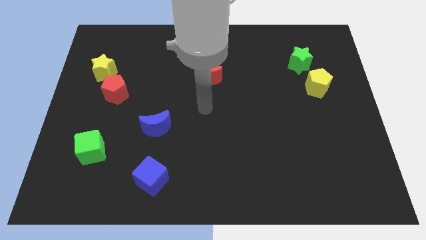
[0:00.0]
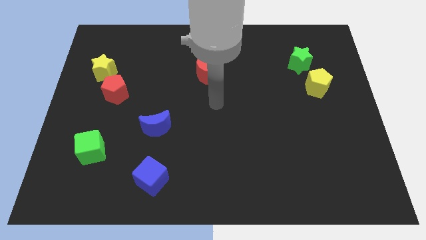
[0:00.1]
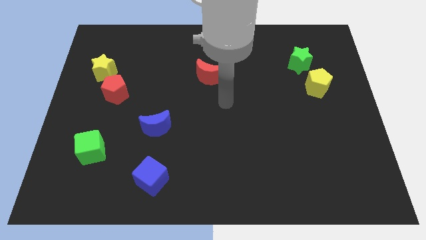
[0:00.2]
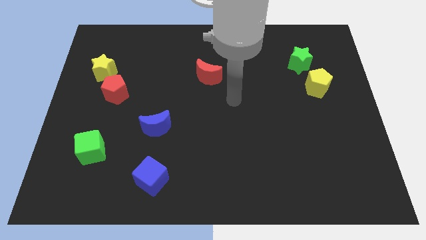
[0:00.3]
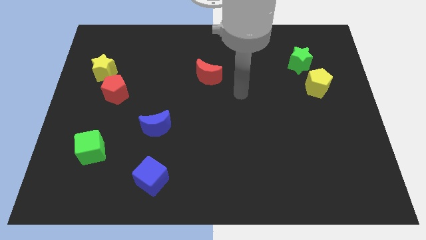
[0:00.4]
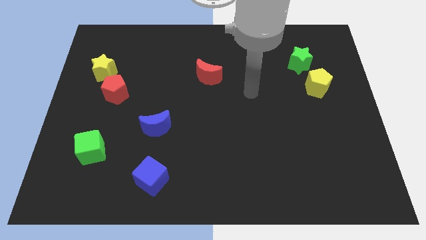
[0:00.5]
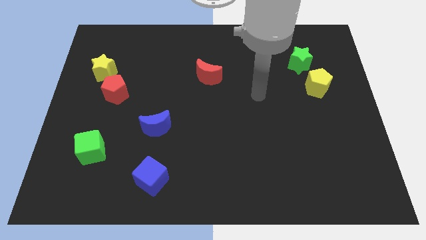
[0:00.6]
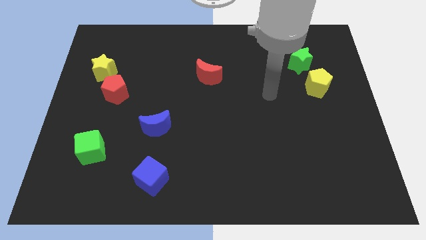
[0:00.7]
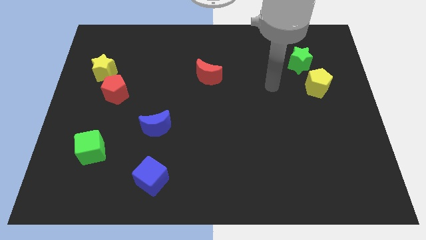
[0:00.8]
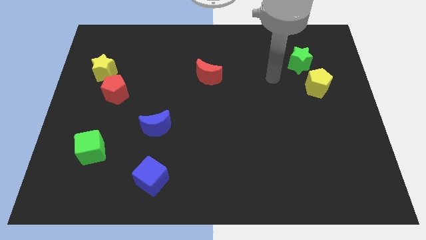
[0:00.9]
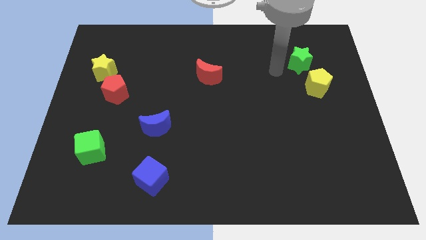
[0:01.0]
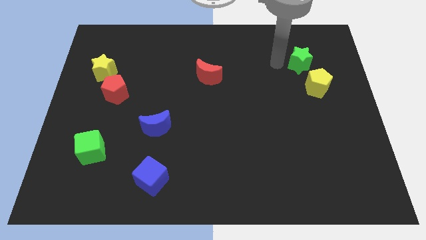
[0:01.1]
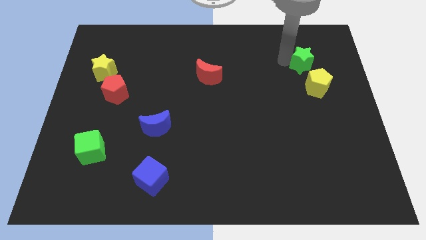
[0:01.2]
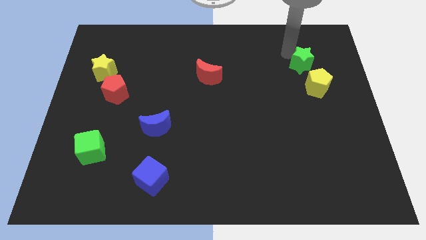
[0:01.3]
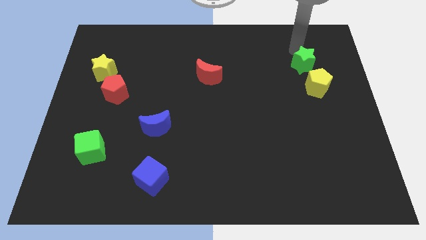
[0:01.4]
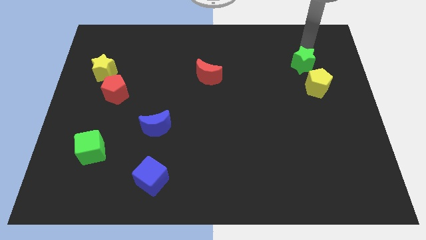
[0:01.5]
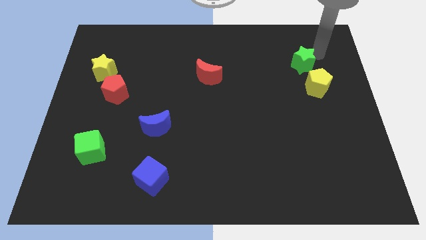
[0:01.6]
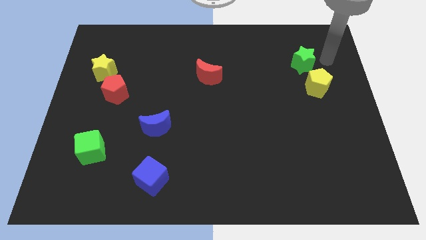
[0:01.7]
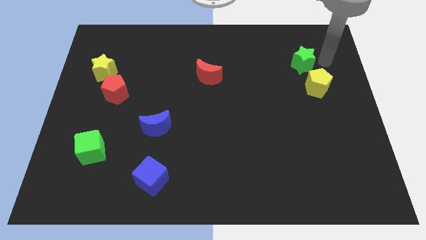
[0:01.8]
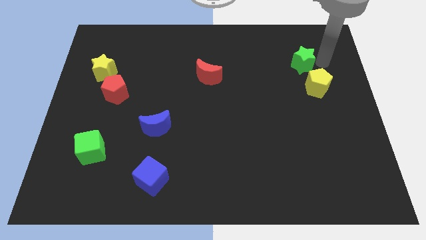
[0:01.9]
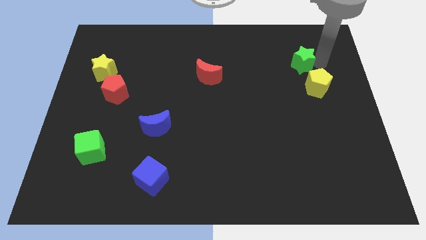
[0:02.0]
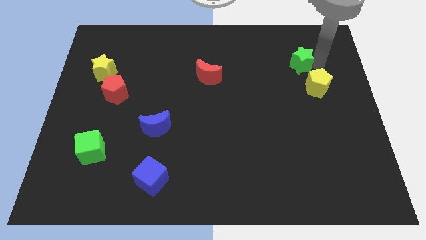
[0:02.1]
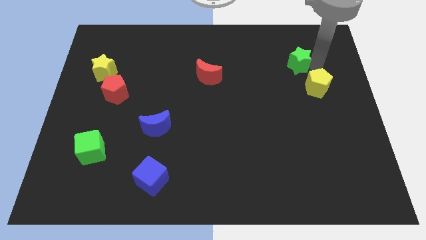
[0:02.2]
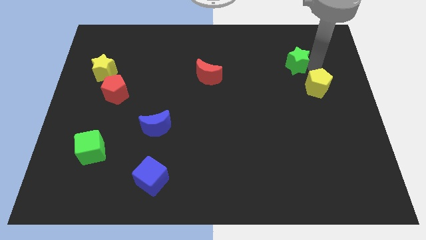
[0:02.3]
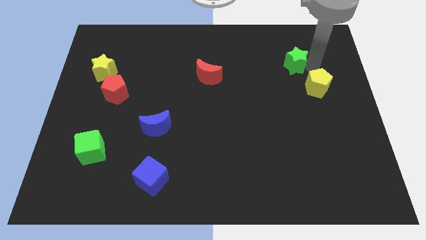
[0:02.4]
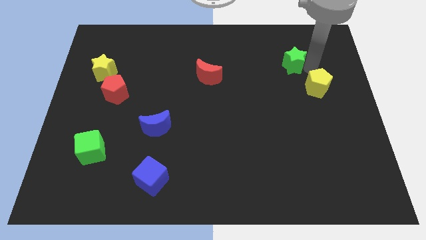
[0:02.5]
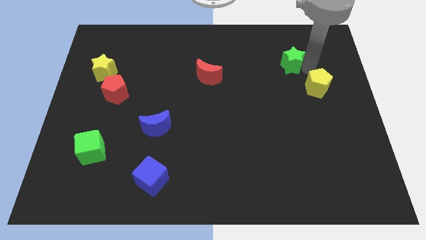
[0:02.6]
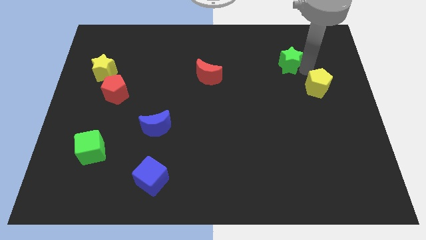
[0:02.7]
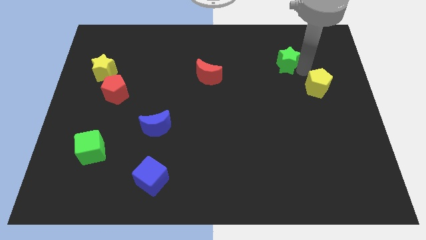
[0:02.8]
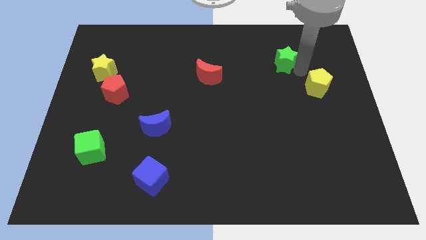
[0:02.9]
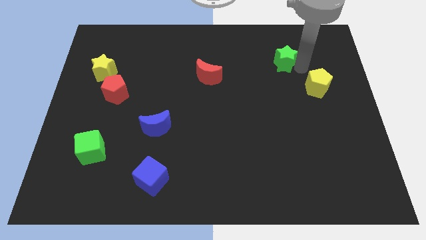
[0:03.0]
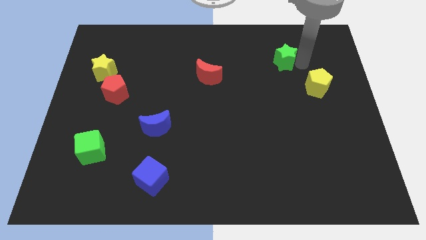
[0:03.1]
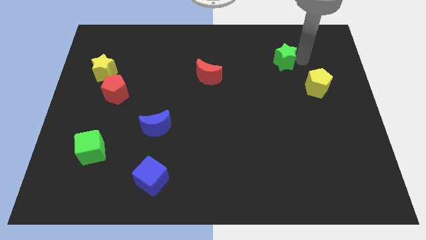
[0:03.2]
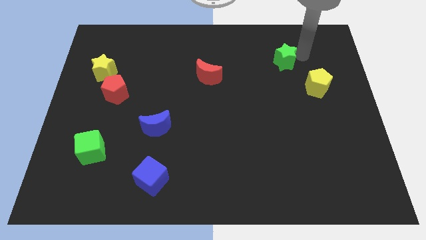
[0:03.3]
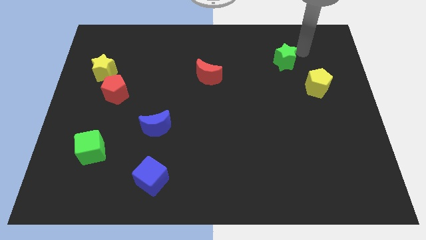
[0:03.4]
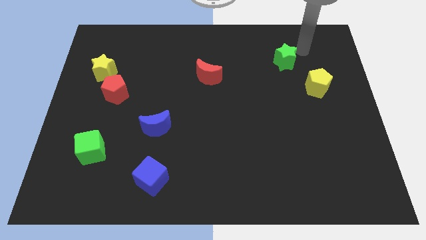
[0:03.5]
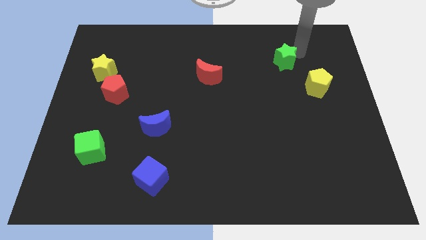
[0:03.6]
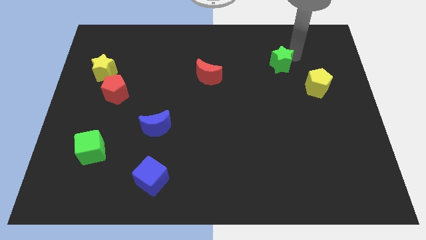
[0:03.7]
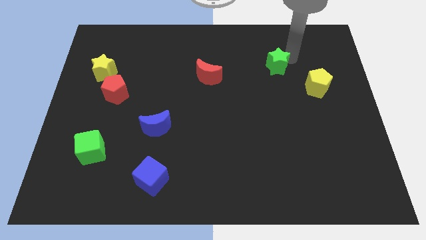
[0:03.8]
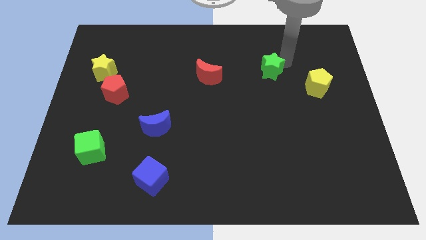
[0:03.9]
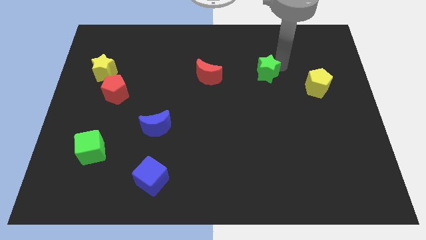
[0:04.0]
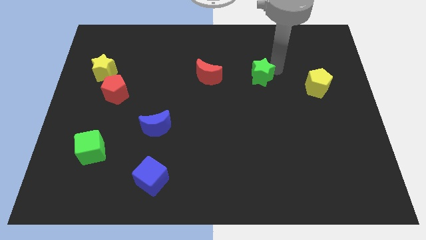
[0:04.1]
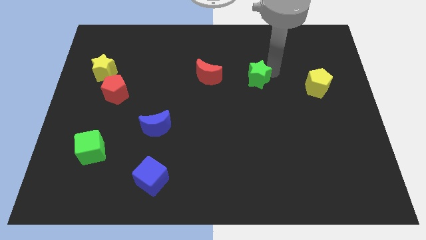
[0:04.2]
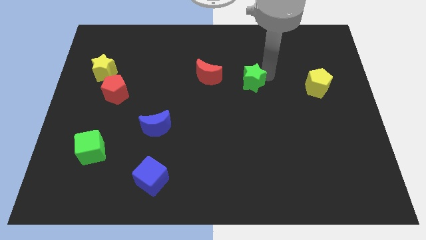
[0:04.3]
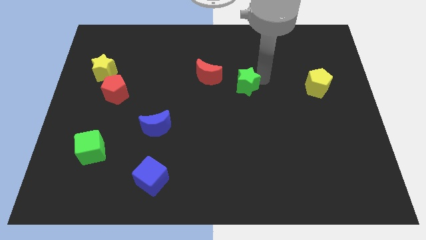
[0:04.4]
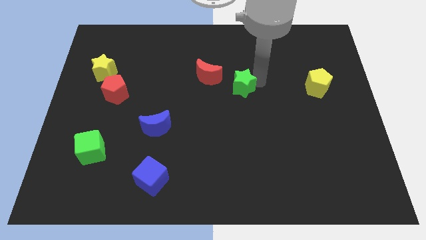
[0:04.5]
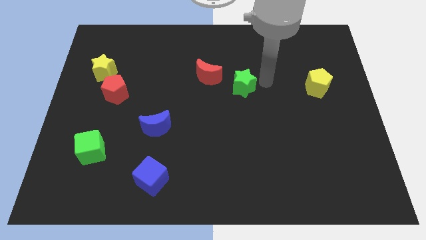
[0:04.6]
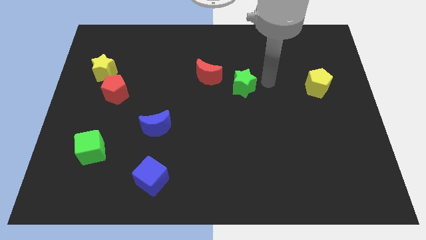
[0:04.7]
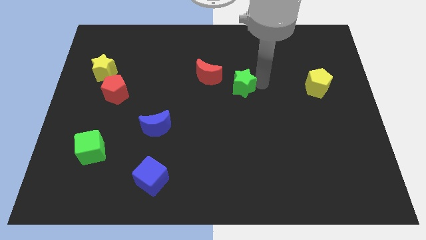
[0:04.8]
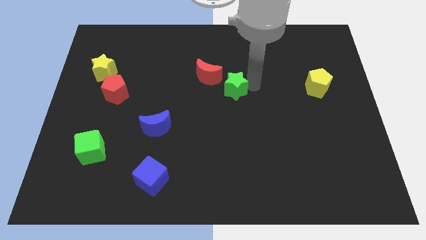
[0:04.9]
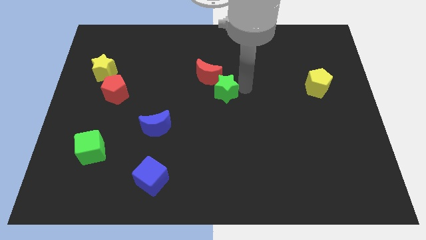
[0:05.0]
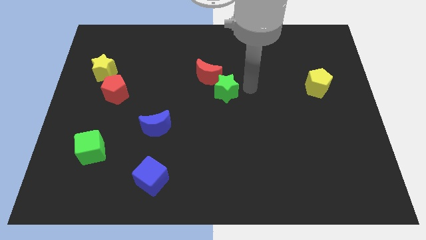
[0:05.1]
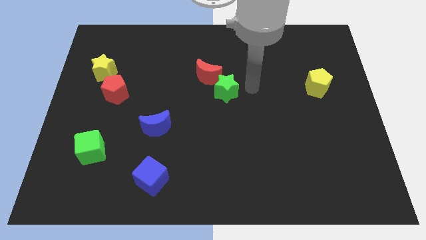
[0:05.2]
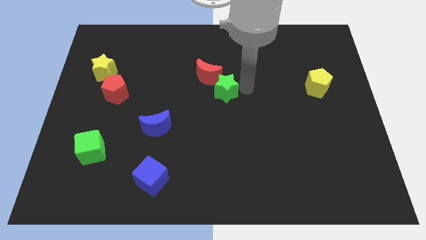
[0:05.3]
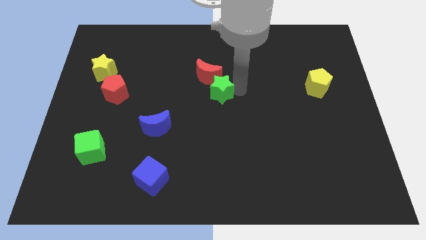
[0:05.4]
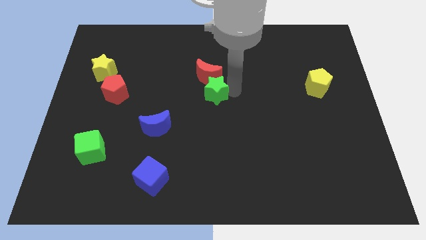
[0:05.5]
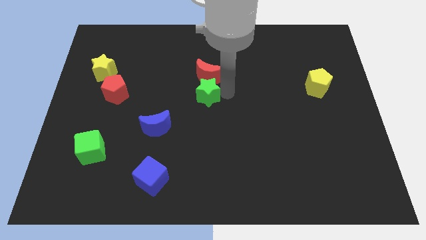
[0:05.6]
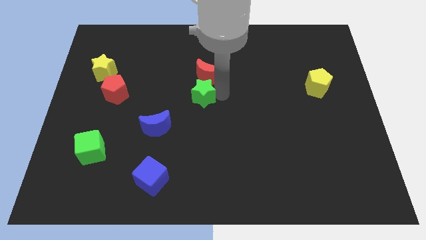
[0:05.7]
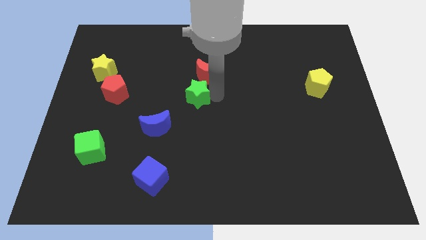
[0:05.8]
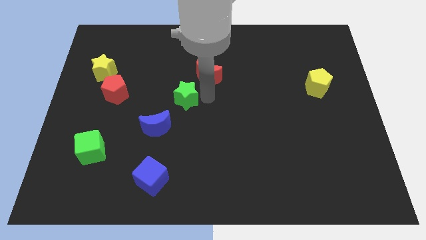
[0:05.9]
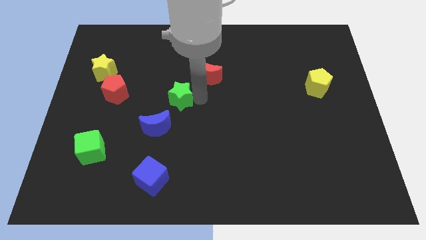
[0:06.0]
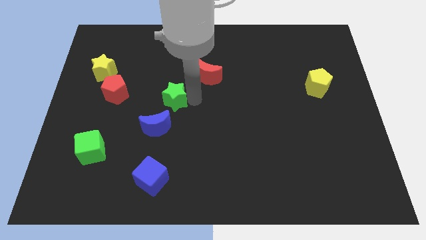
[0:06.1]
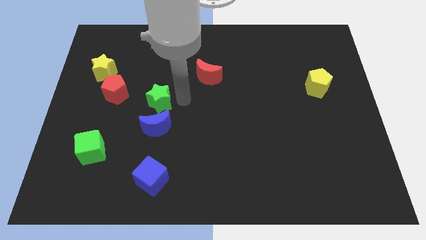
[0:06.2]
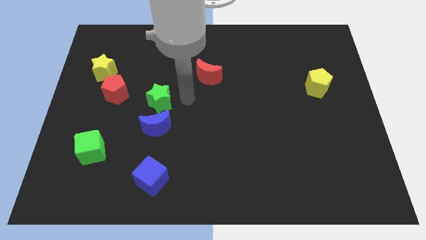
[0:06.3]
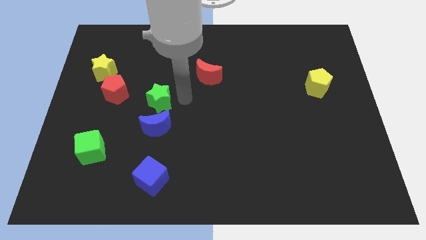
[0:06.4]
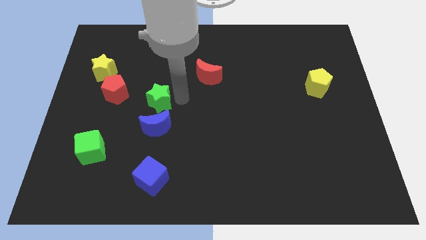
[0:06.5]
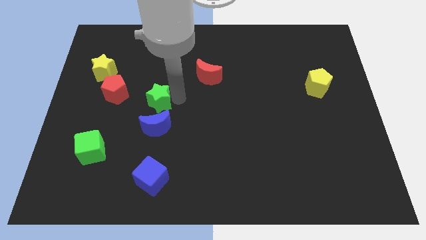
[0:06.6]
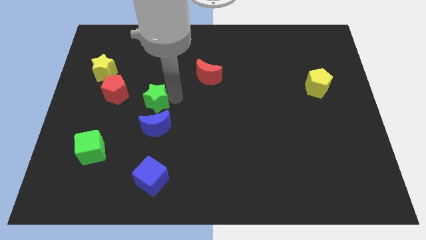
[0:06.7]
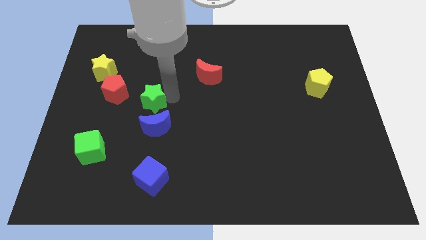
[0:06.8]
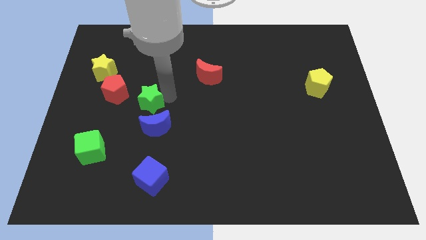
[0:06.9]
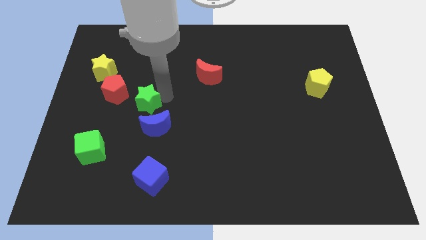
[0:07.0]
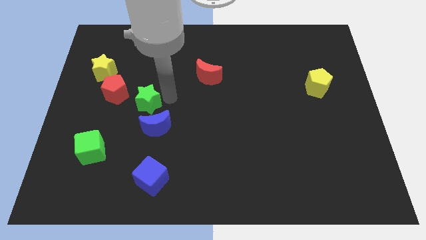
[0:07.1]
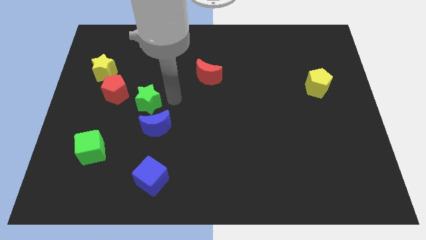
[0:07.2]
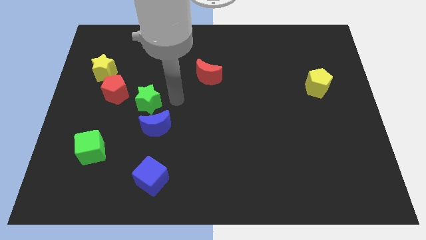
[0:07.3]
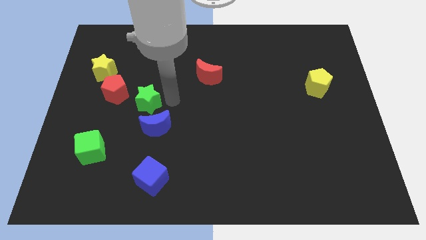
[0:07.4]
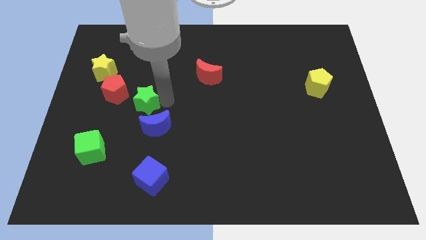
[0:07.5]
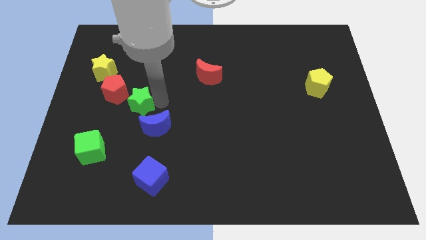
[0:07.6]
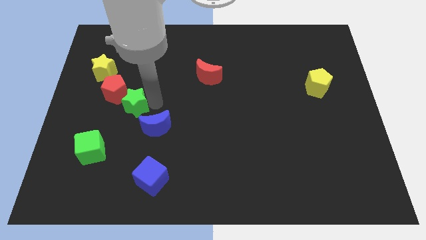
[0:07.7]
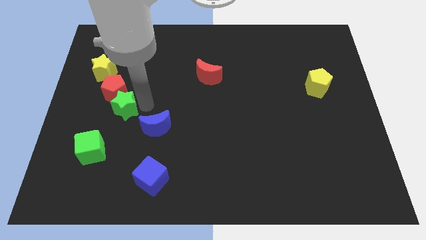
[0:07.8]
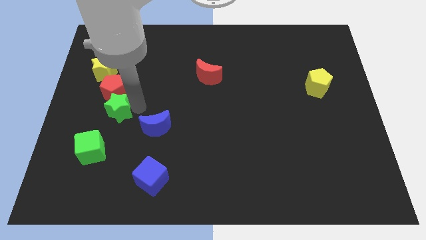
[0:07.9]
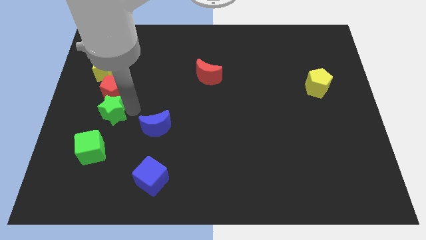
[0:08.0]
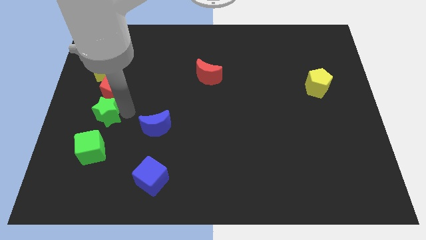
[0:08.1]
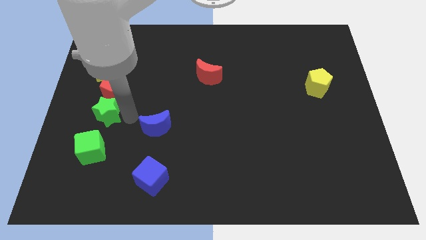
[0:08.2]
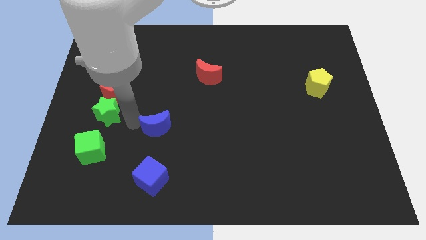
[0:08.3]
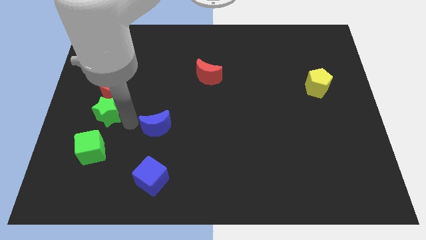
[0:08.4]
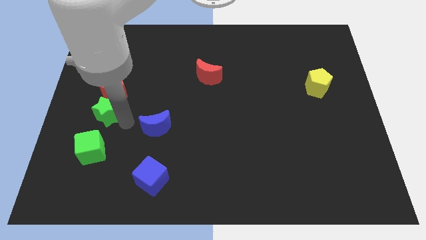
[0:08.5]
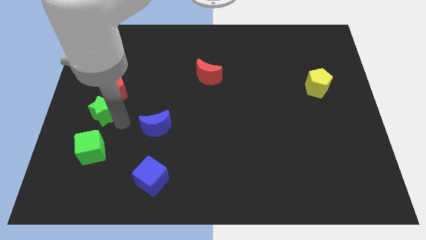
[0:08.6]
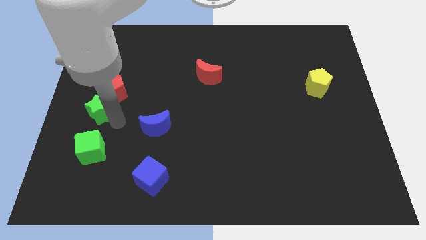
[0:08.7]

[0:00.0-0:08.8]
move the green star to the left side of the board
